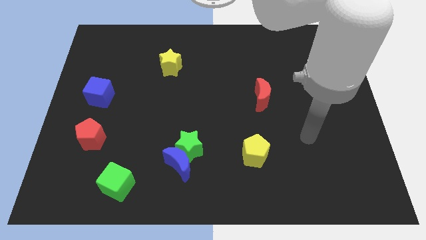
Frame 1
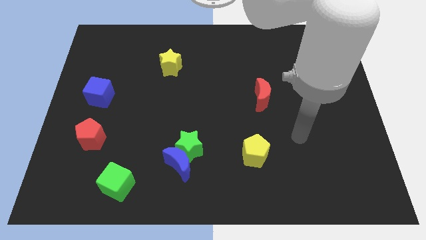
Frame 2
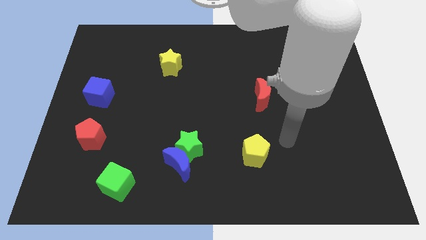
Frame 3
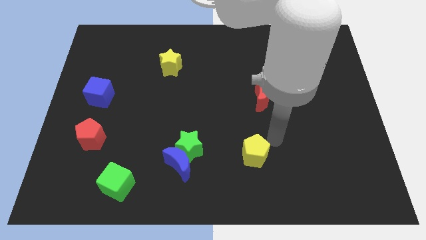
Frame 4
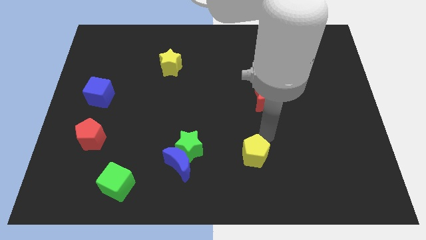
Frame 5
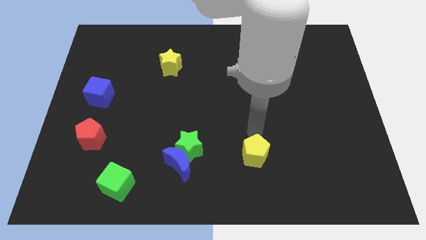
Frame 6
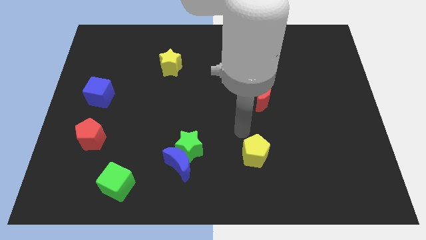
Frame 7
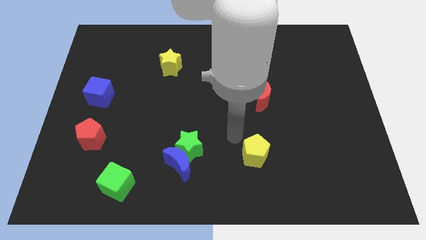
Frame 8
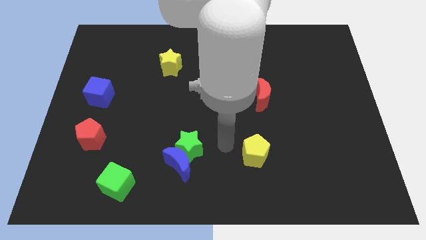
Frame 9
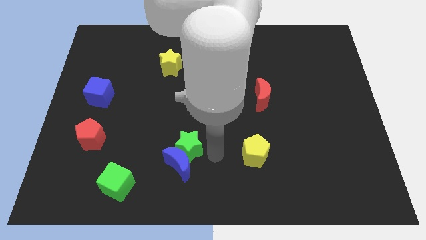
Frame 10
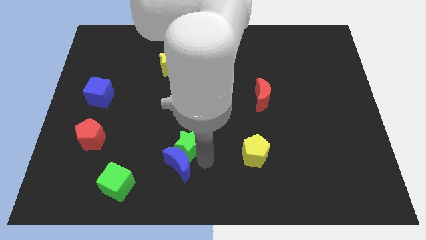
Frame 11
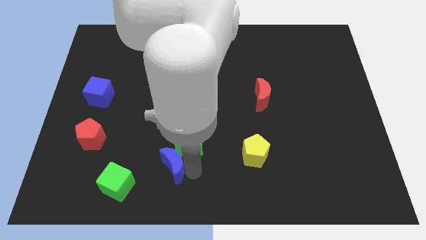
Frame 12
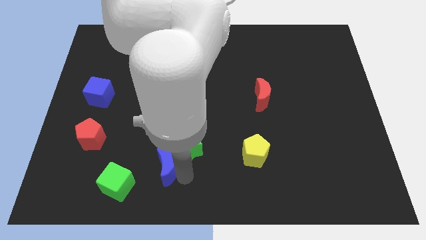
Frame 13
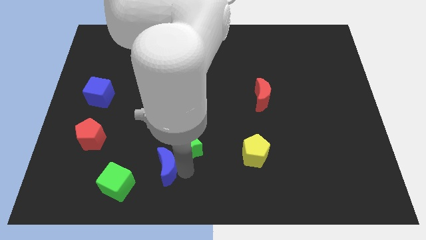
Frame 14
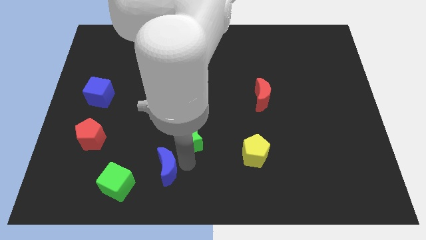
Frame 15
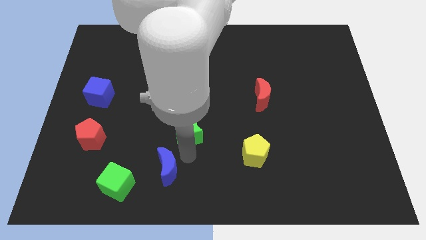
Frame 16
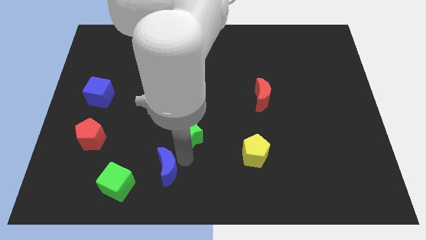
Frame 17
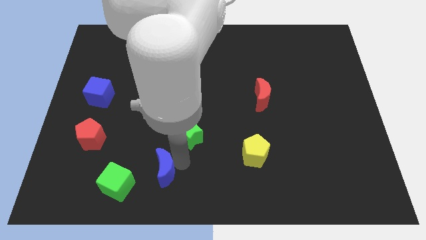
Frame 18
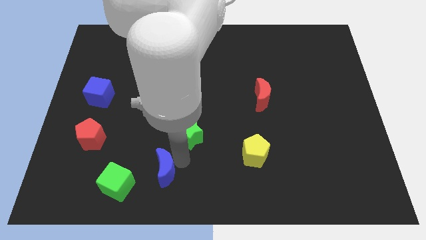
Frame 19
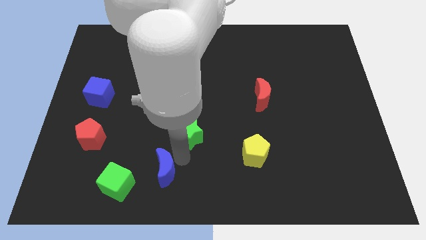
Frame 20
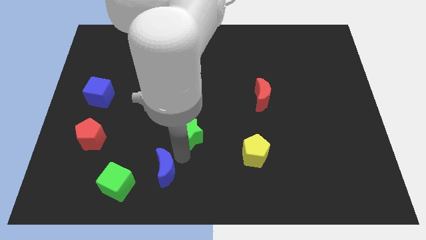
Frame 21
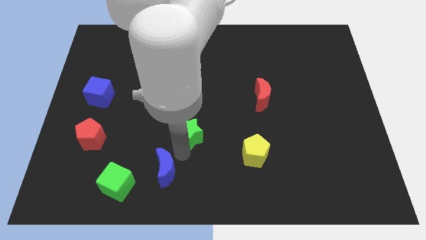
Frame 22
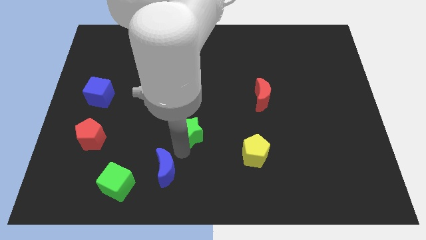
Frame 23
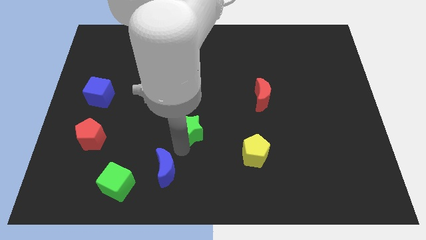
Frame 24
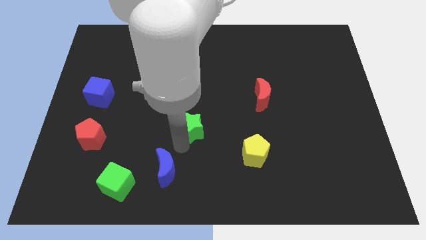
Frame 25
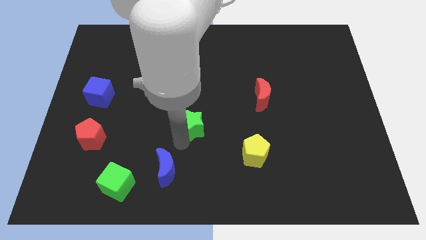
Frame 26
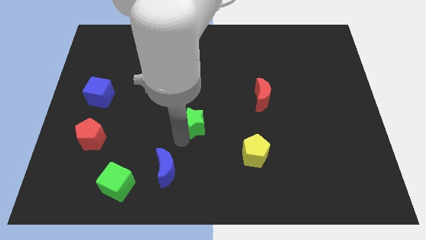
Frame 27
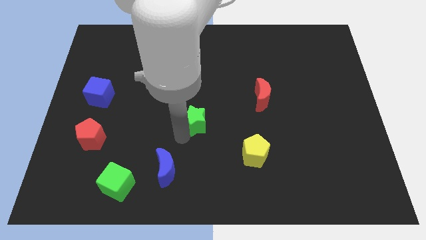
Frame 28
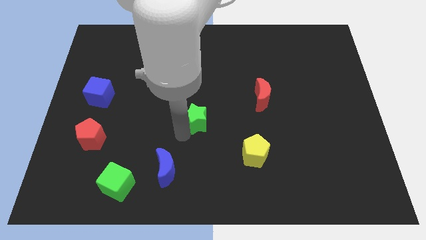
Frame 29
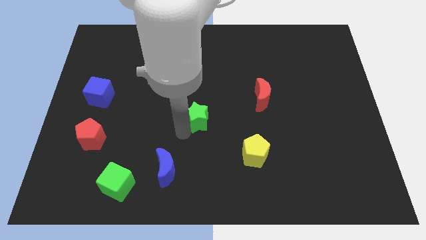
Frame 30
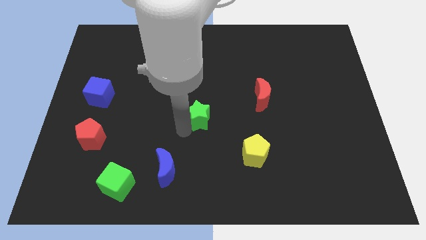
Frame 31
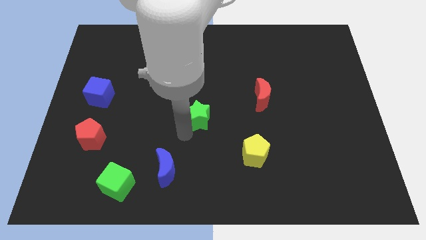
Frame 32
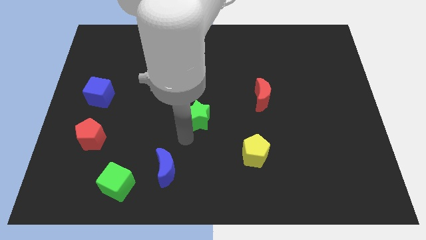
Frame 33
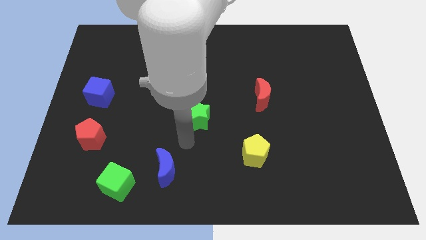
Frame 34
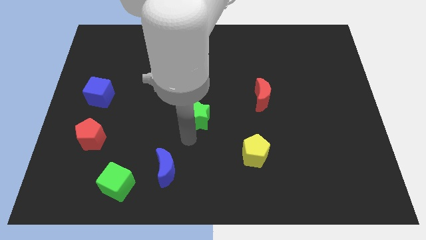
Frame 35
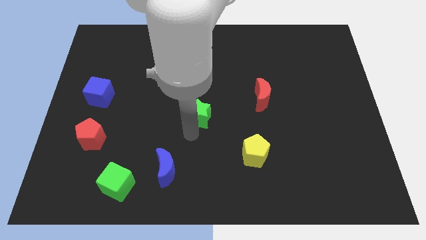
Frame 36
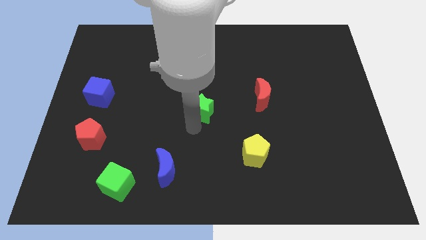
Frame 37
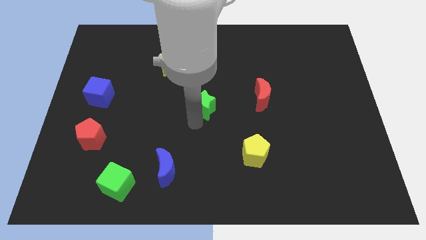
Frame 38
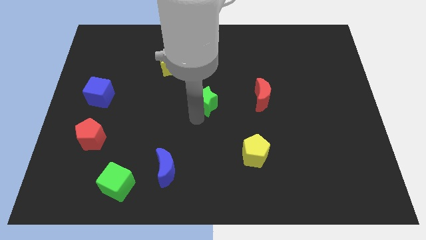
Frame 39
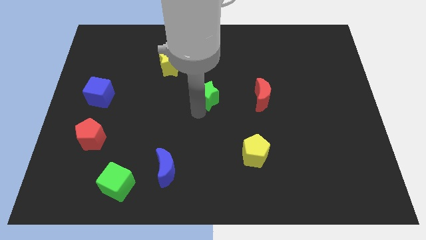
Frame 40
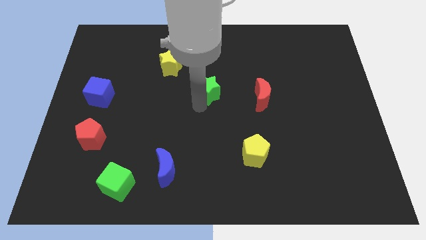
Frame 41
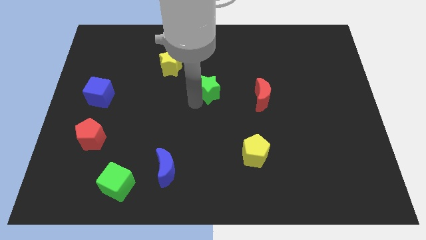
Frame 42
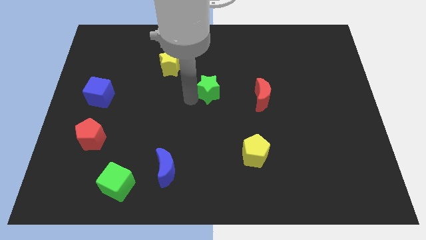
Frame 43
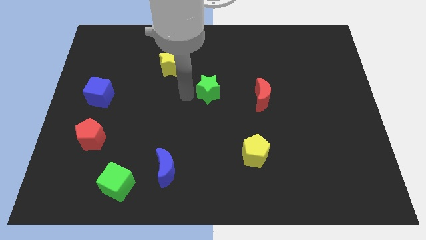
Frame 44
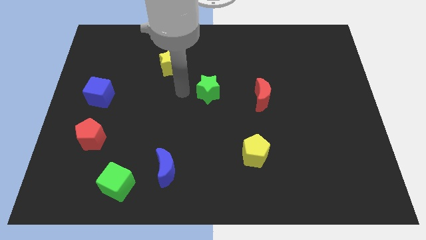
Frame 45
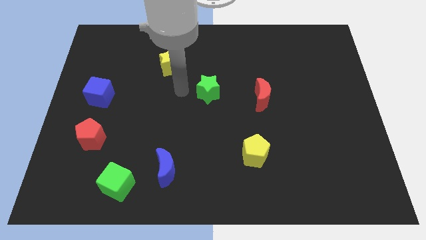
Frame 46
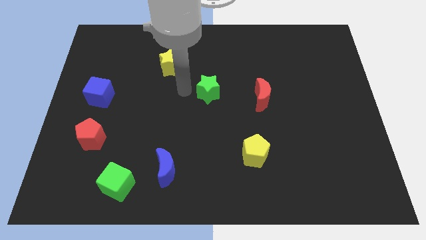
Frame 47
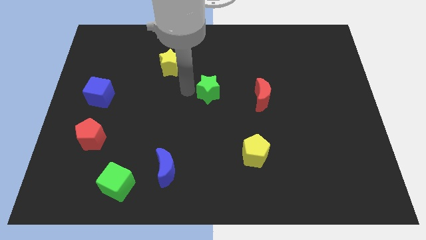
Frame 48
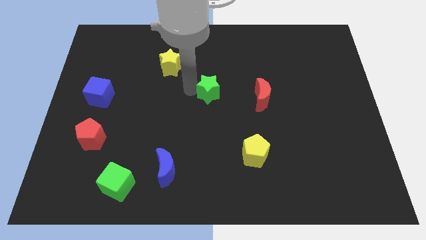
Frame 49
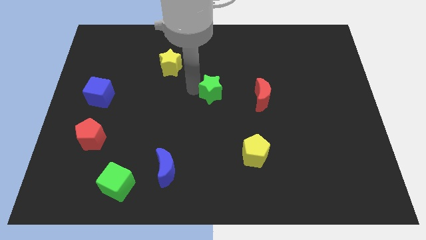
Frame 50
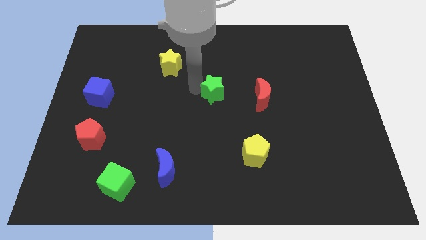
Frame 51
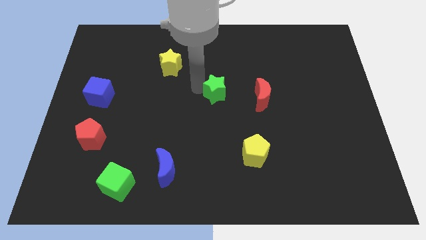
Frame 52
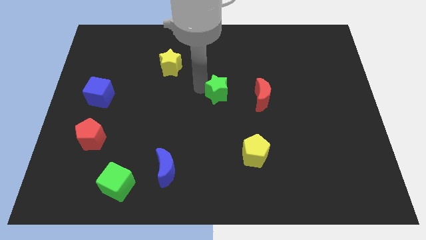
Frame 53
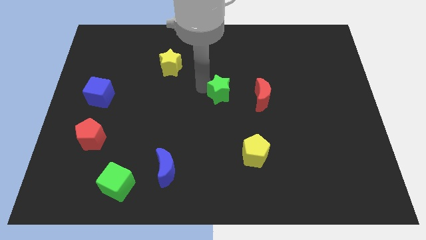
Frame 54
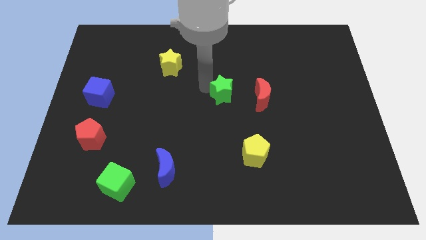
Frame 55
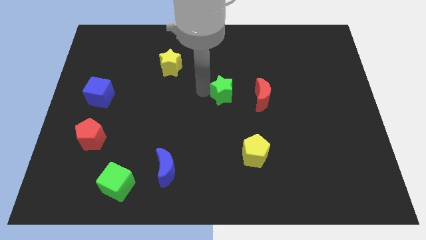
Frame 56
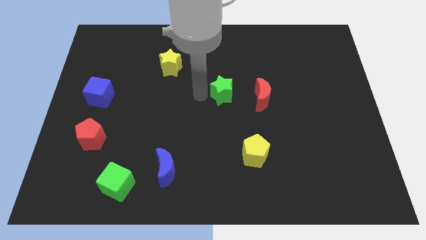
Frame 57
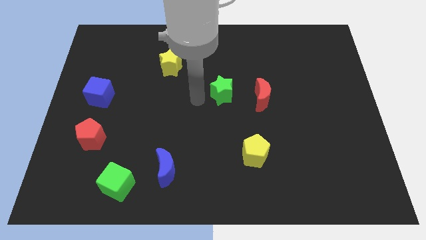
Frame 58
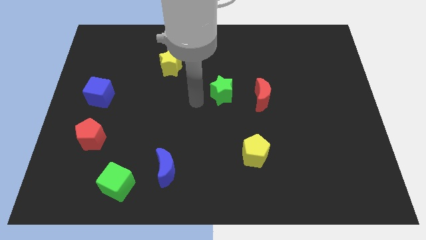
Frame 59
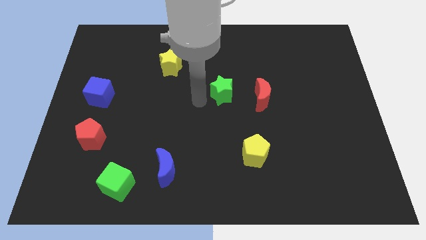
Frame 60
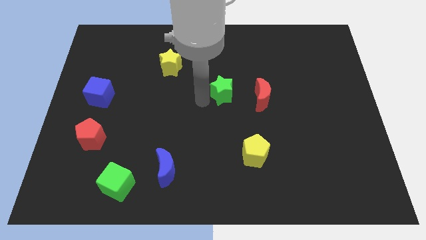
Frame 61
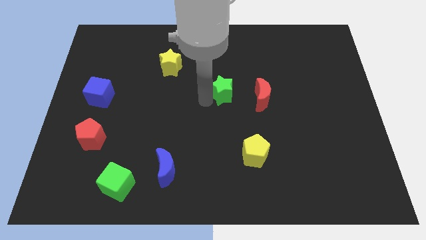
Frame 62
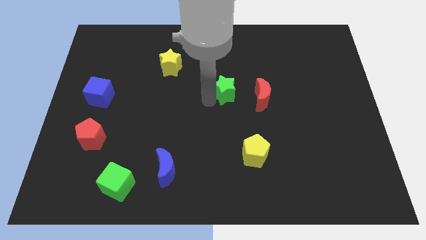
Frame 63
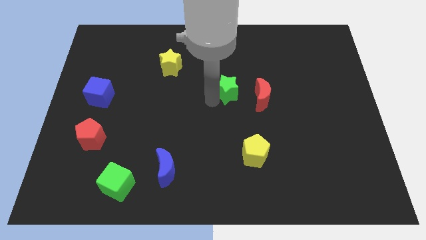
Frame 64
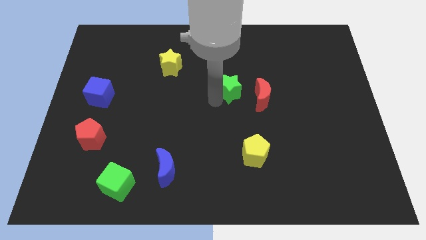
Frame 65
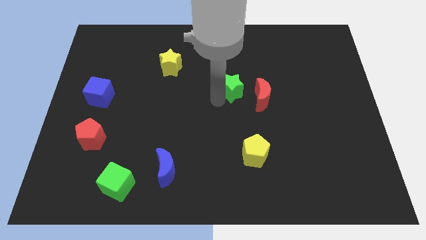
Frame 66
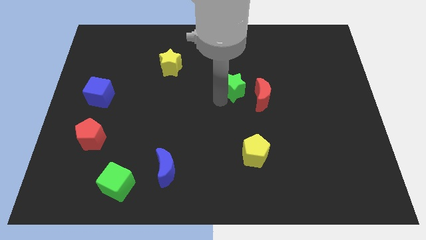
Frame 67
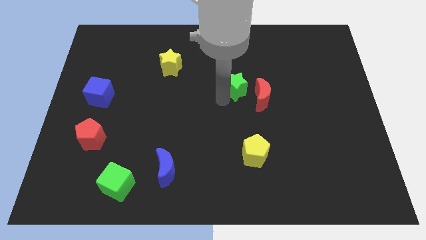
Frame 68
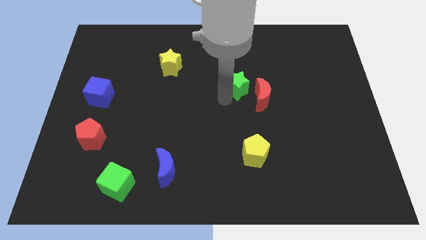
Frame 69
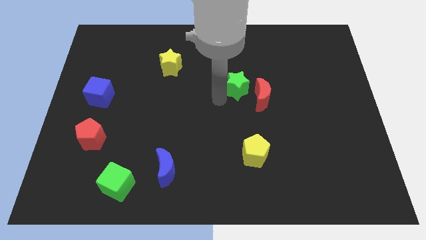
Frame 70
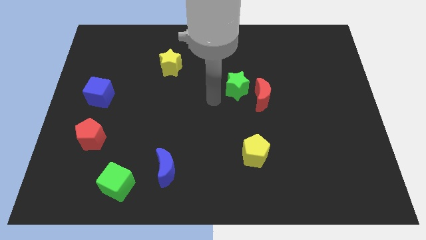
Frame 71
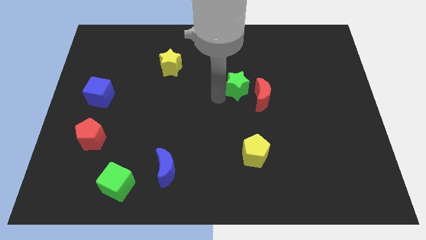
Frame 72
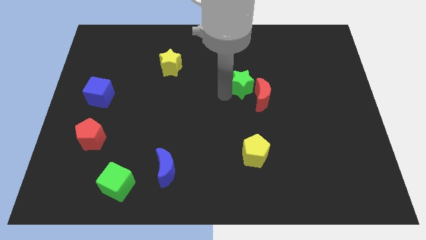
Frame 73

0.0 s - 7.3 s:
slide the green star diagonally upwards and to the right

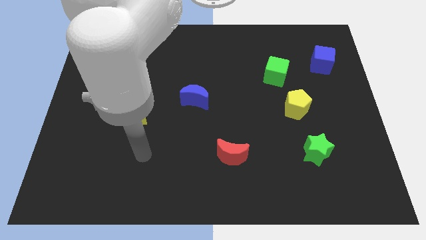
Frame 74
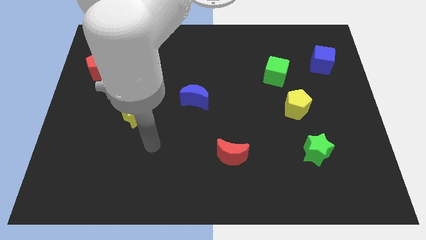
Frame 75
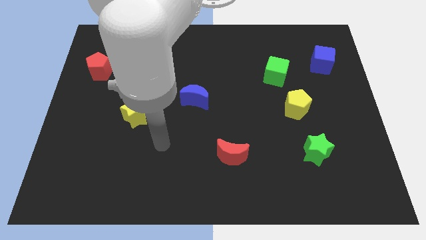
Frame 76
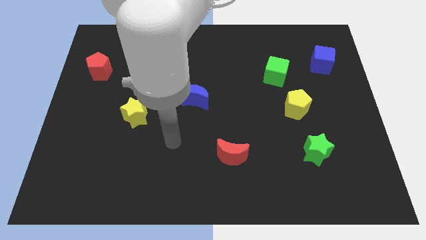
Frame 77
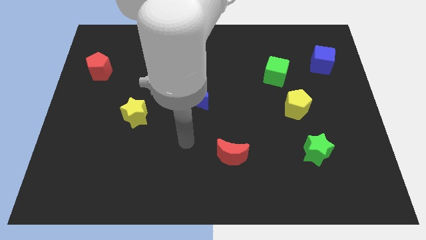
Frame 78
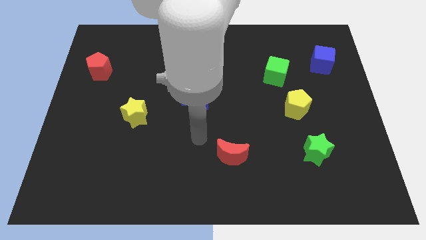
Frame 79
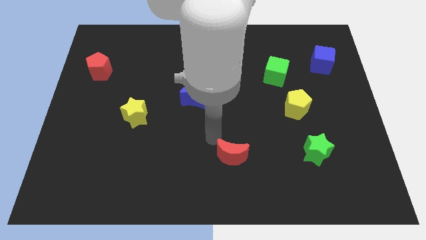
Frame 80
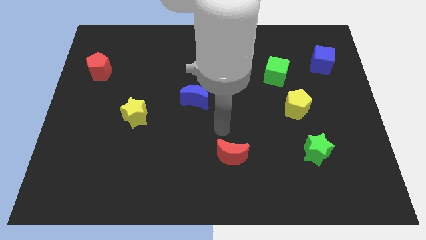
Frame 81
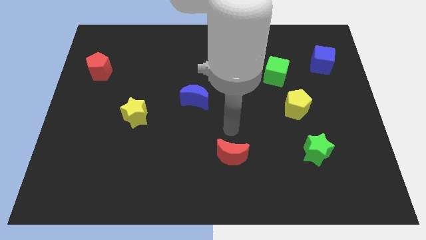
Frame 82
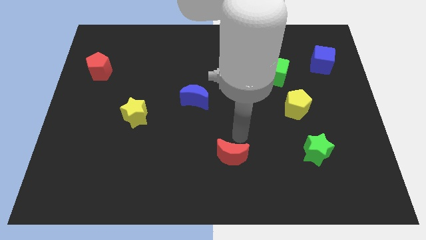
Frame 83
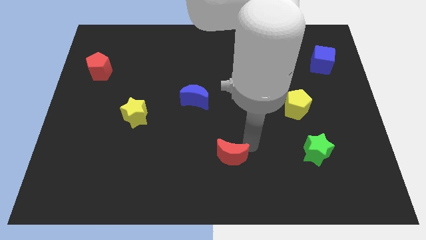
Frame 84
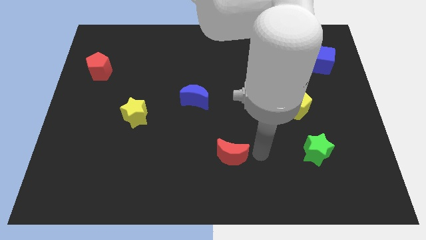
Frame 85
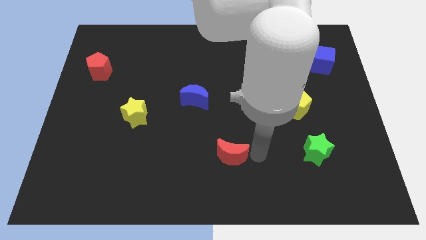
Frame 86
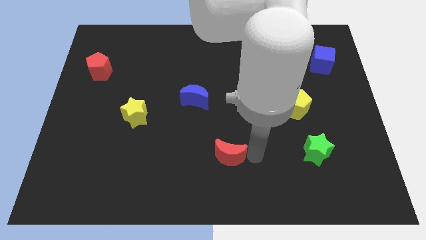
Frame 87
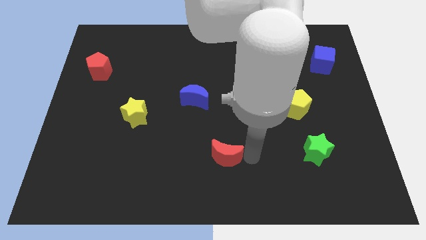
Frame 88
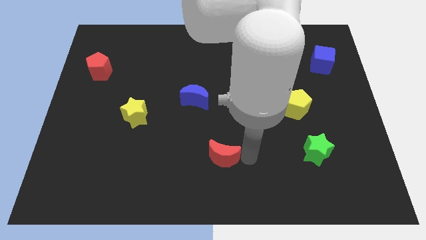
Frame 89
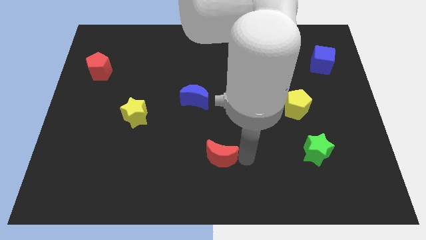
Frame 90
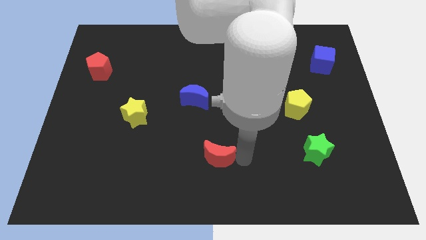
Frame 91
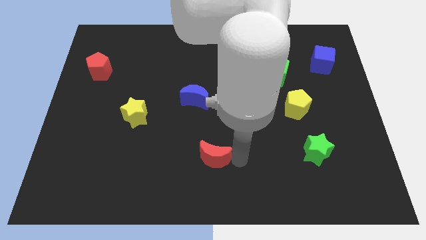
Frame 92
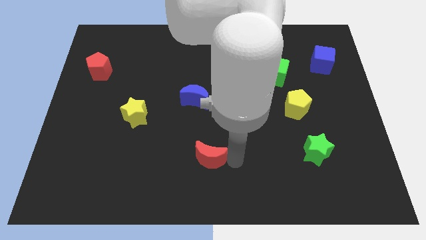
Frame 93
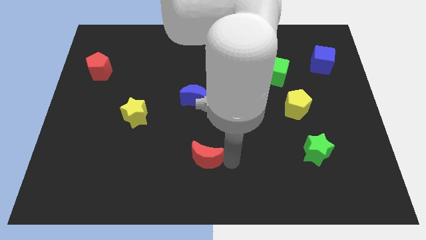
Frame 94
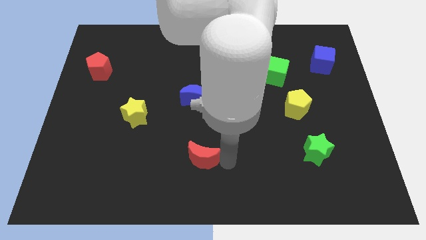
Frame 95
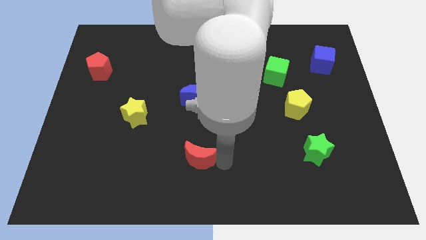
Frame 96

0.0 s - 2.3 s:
slightly push the red moon left
